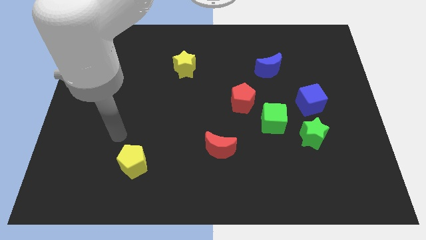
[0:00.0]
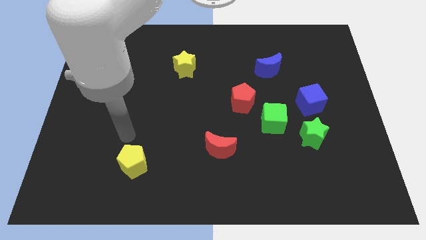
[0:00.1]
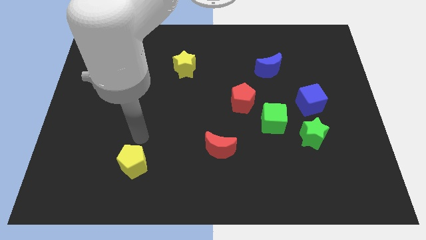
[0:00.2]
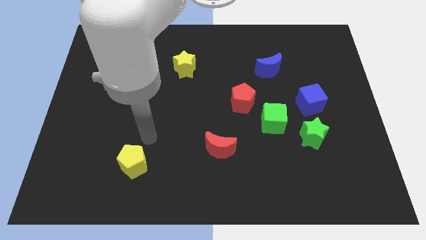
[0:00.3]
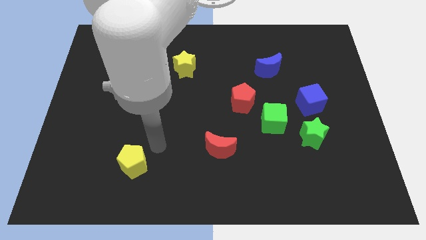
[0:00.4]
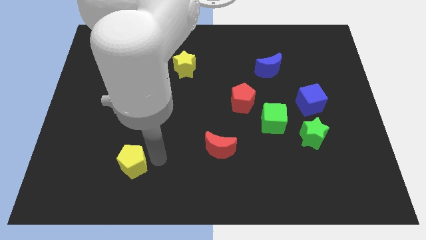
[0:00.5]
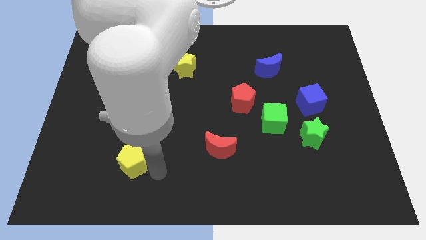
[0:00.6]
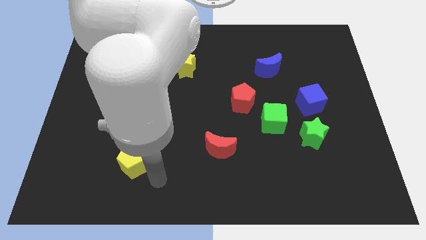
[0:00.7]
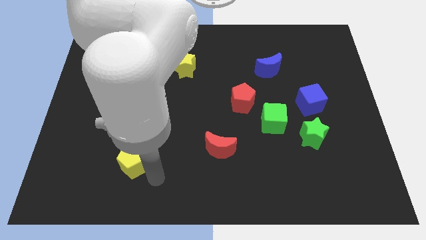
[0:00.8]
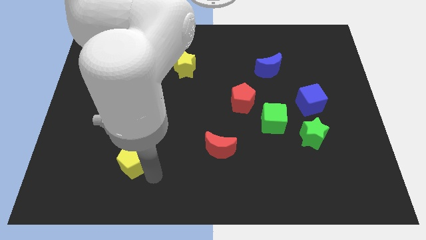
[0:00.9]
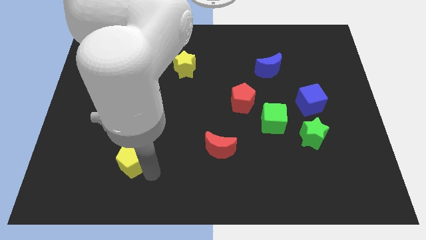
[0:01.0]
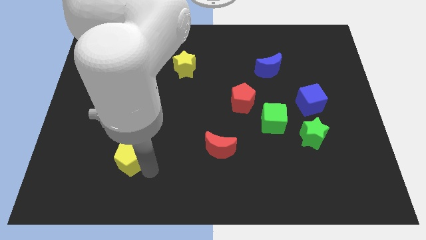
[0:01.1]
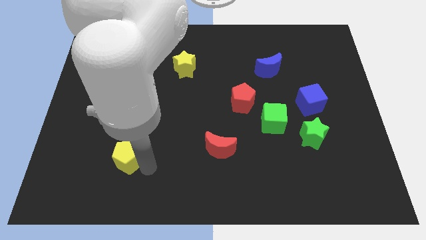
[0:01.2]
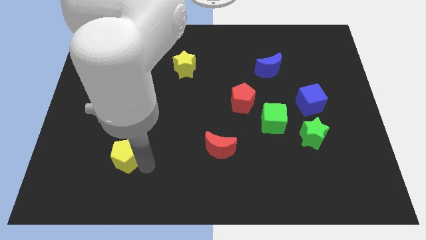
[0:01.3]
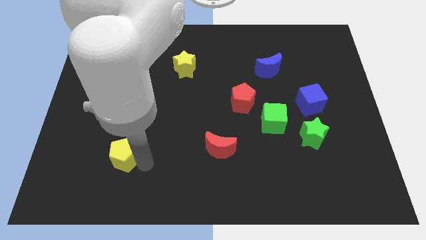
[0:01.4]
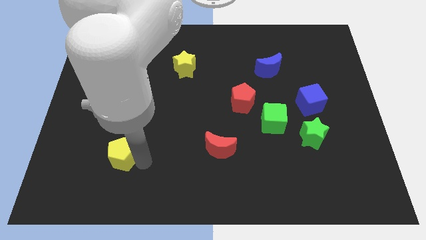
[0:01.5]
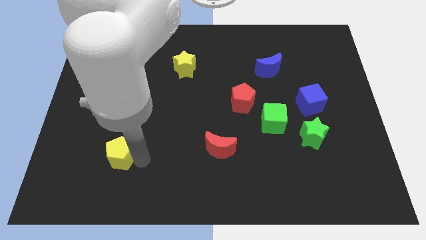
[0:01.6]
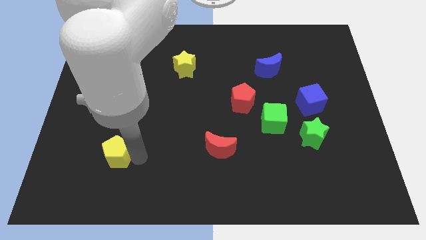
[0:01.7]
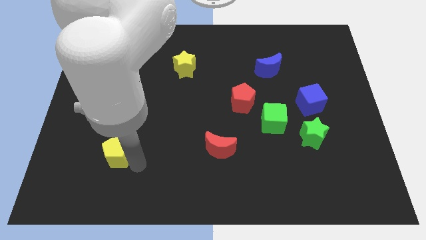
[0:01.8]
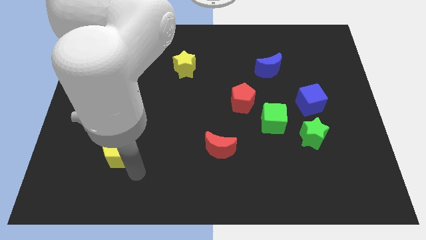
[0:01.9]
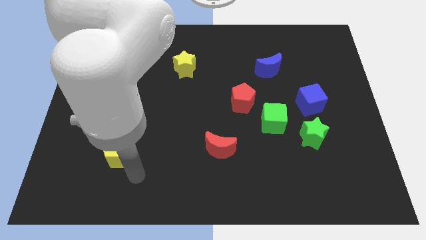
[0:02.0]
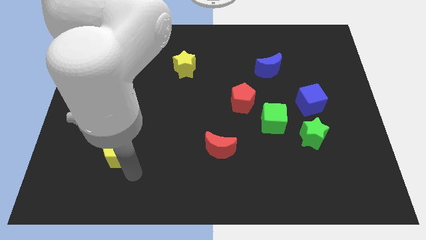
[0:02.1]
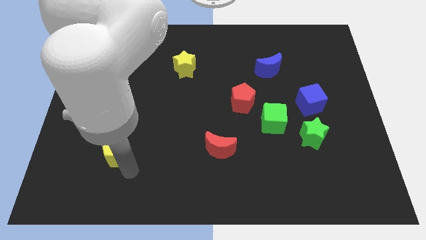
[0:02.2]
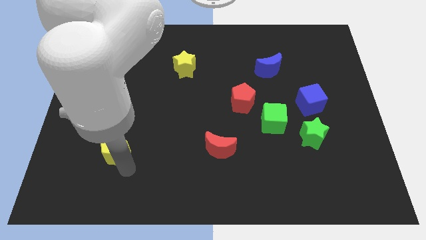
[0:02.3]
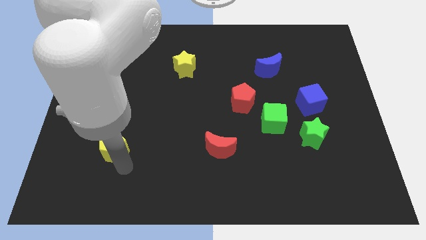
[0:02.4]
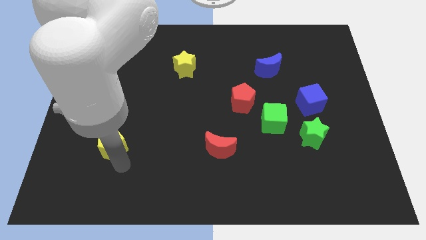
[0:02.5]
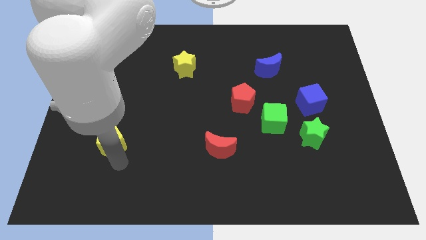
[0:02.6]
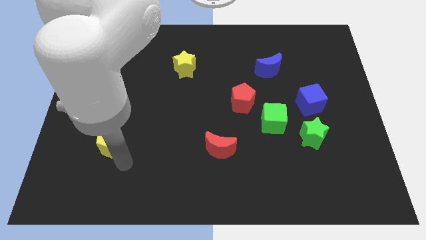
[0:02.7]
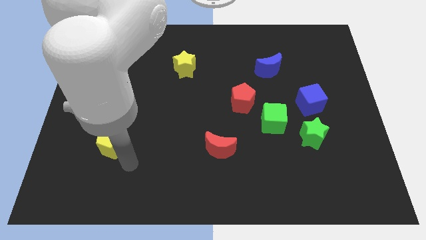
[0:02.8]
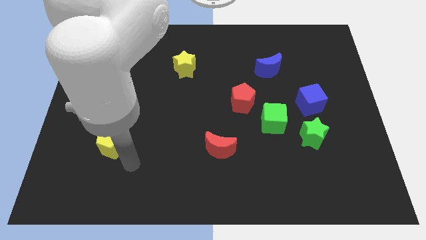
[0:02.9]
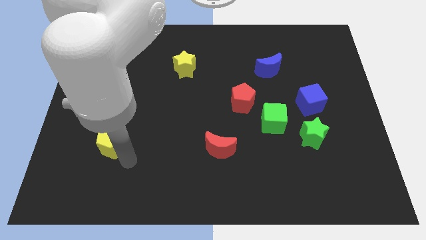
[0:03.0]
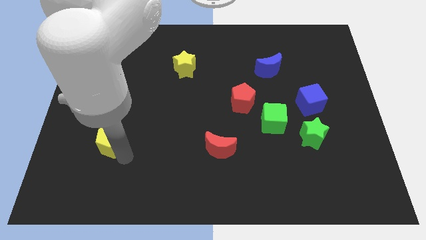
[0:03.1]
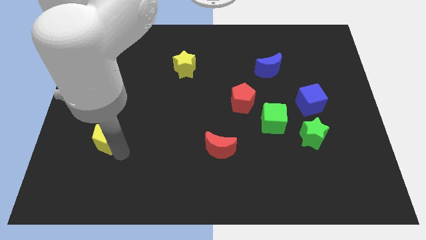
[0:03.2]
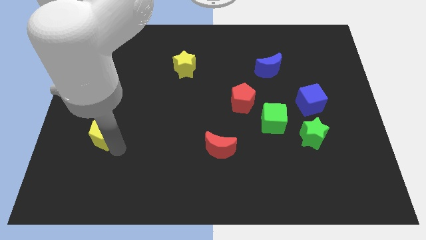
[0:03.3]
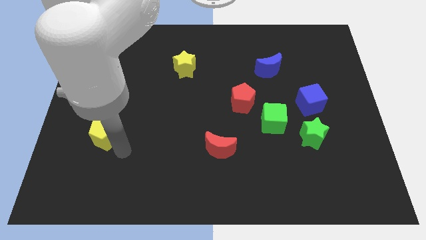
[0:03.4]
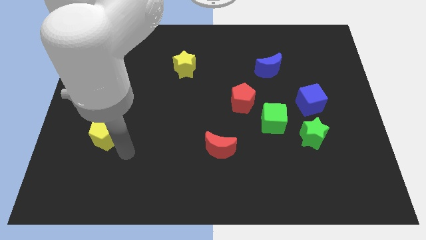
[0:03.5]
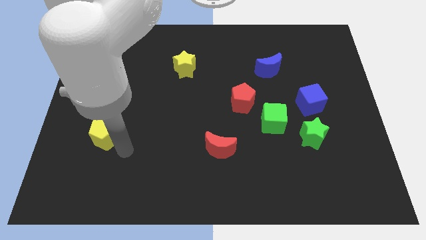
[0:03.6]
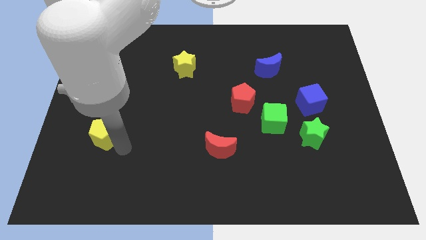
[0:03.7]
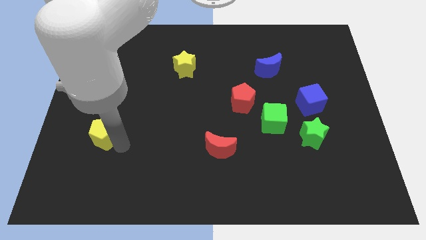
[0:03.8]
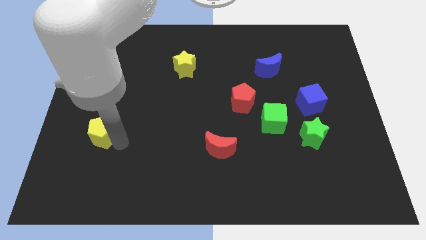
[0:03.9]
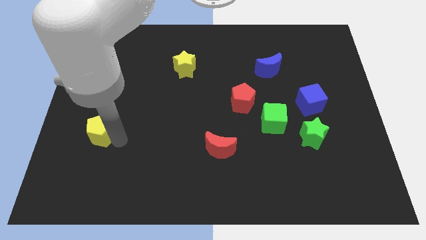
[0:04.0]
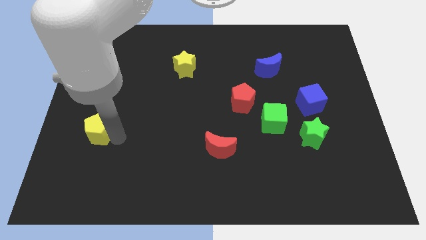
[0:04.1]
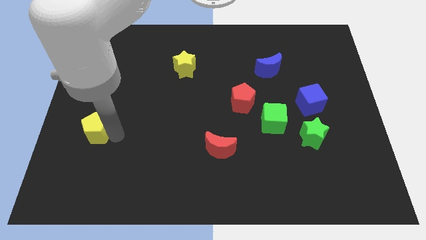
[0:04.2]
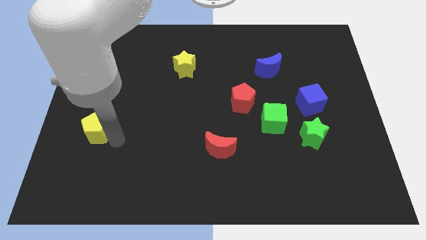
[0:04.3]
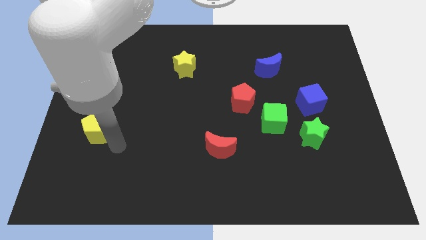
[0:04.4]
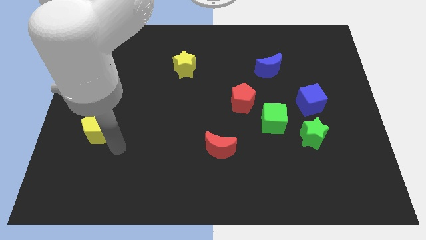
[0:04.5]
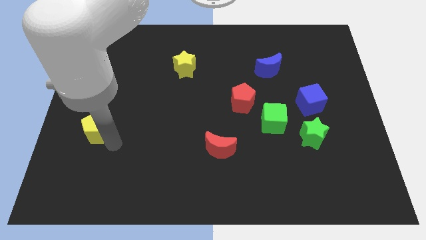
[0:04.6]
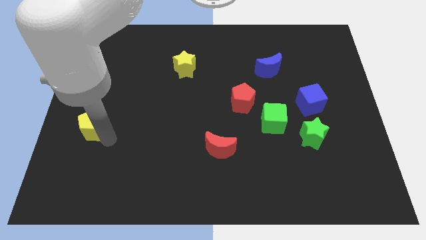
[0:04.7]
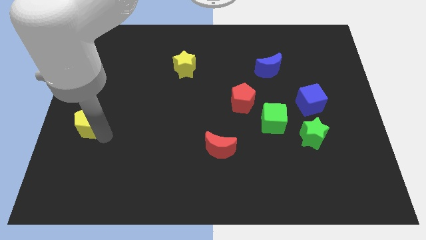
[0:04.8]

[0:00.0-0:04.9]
slide the yellow pentagon to the left side of the board

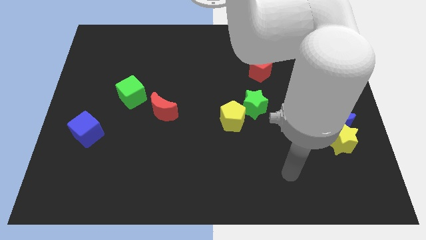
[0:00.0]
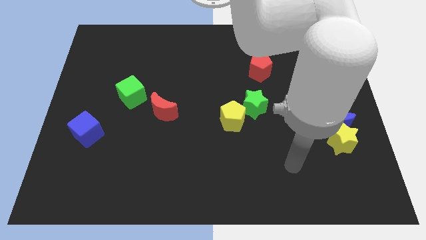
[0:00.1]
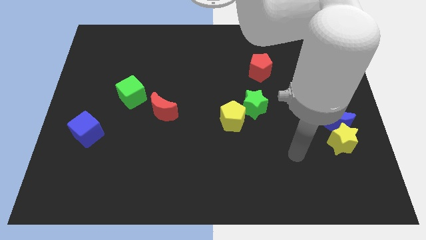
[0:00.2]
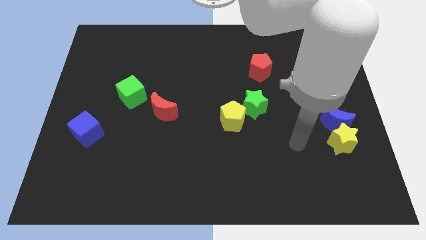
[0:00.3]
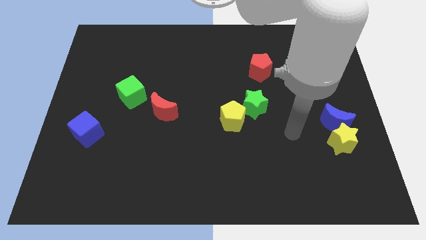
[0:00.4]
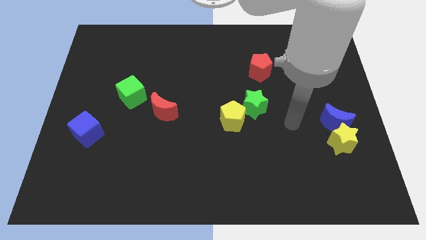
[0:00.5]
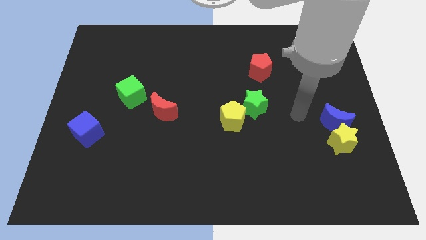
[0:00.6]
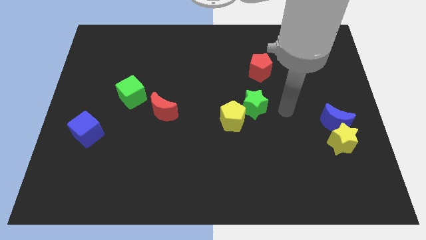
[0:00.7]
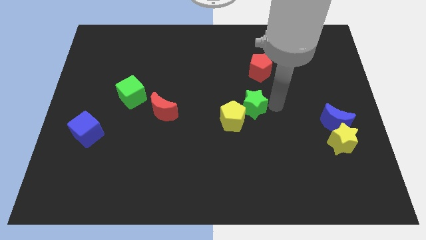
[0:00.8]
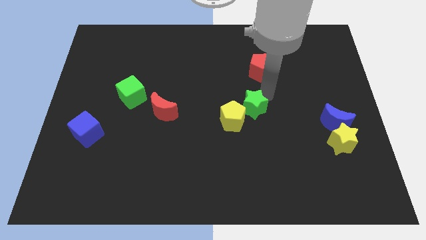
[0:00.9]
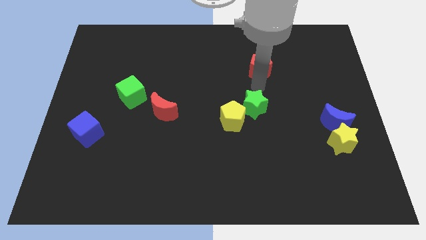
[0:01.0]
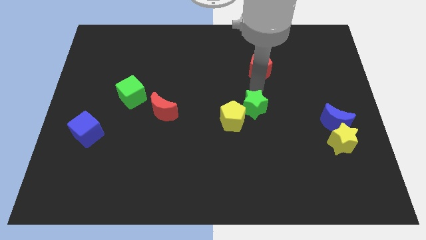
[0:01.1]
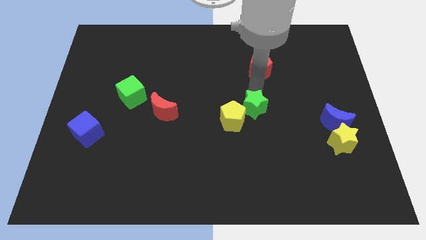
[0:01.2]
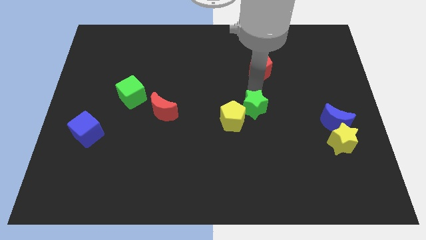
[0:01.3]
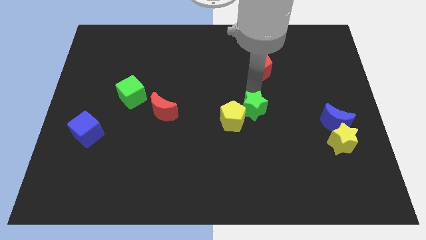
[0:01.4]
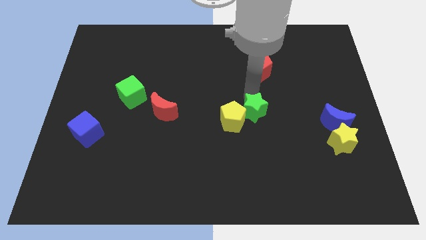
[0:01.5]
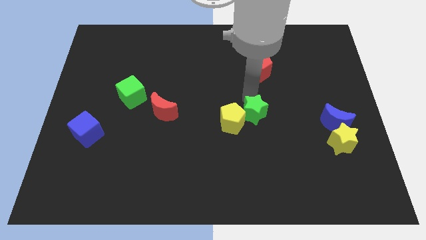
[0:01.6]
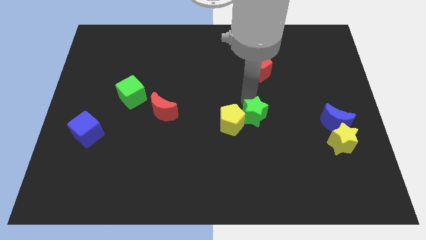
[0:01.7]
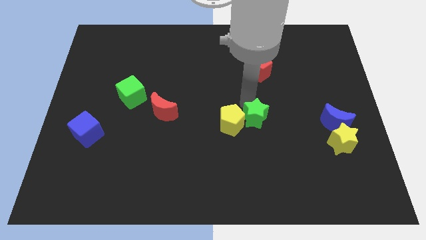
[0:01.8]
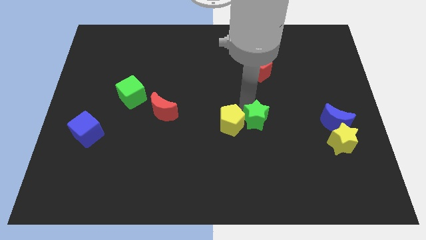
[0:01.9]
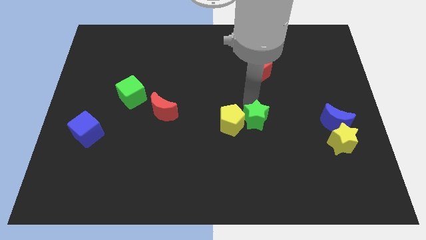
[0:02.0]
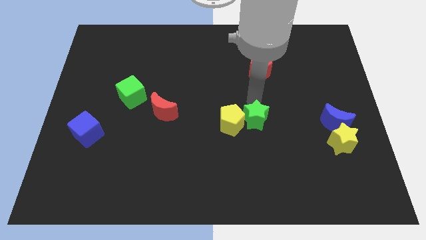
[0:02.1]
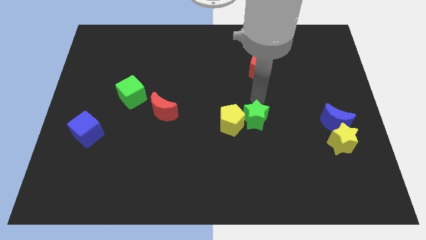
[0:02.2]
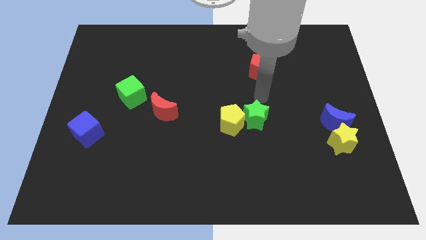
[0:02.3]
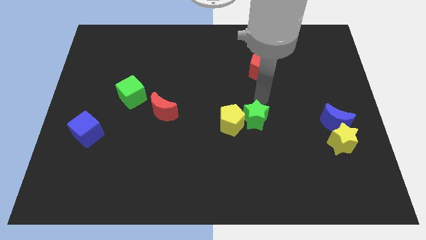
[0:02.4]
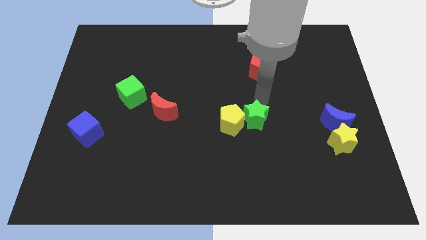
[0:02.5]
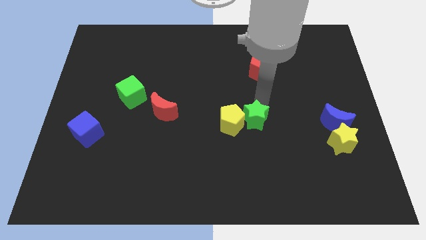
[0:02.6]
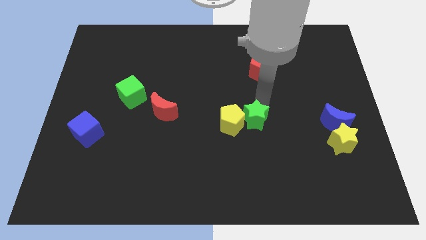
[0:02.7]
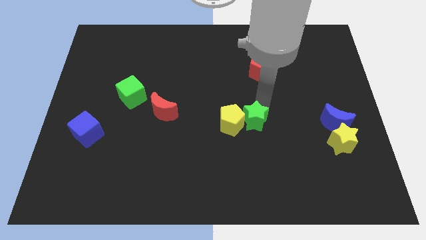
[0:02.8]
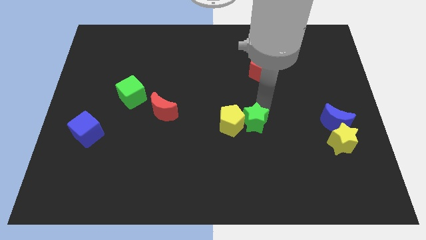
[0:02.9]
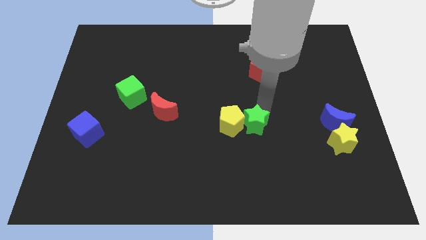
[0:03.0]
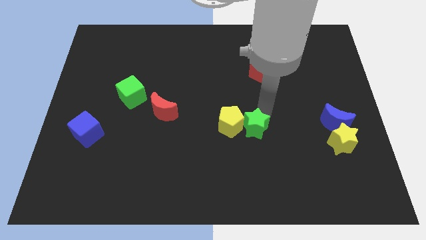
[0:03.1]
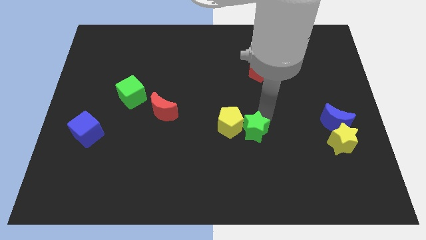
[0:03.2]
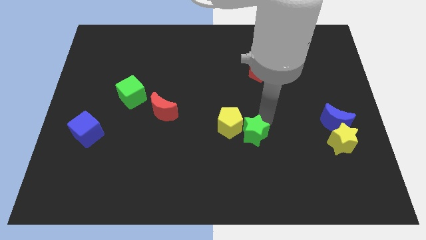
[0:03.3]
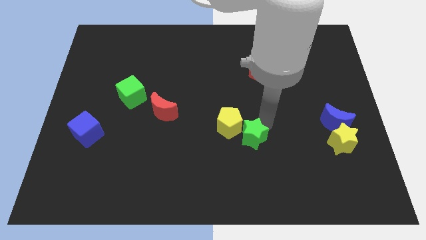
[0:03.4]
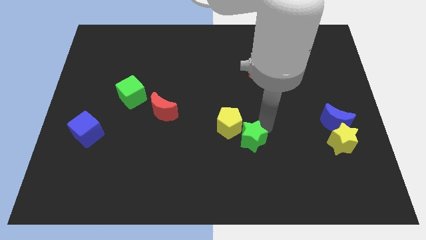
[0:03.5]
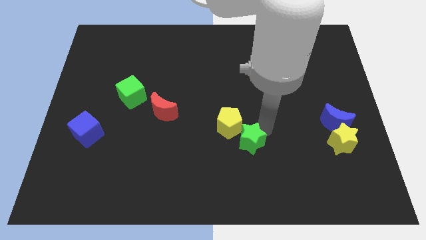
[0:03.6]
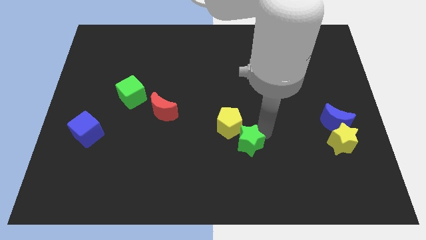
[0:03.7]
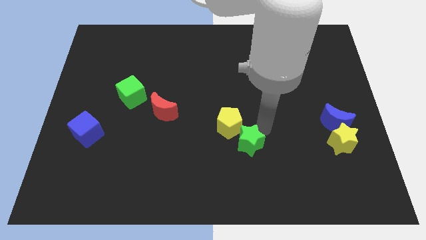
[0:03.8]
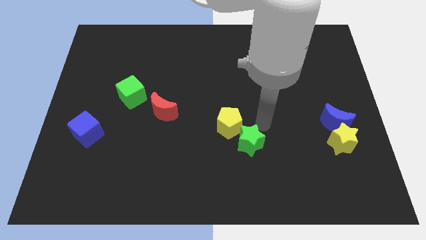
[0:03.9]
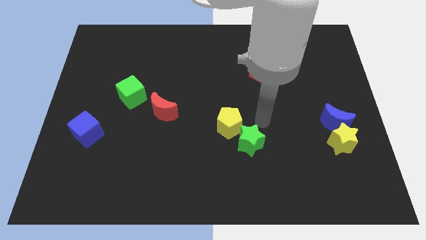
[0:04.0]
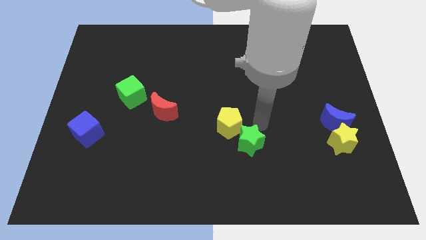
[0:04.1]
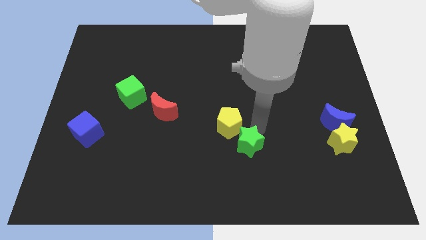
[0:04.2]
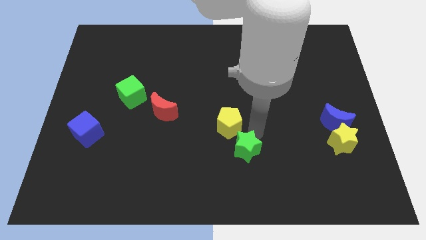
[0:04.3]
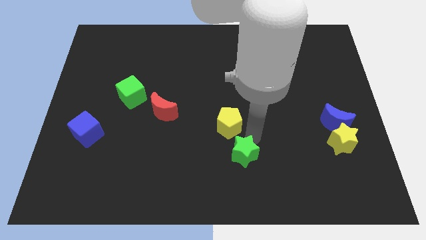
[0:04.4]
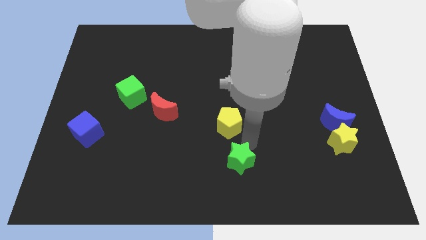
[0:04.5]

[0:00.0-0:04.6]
slide the green star to the bottom
